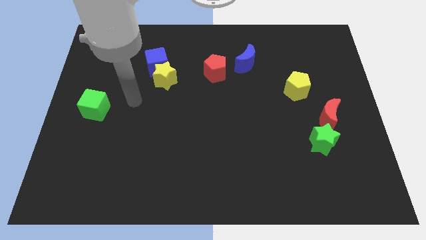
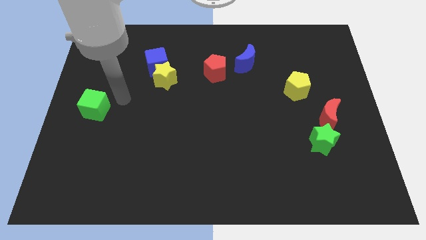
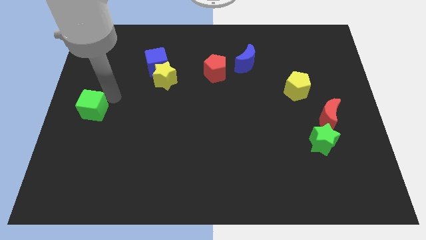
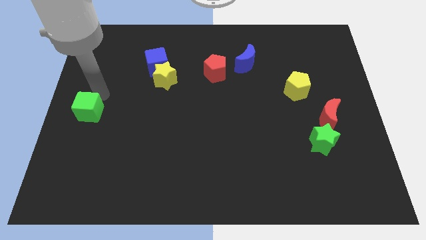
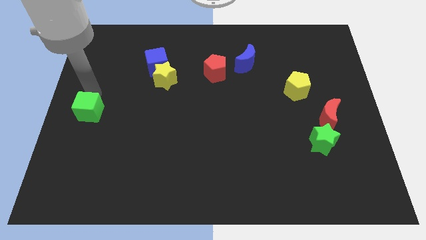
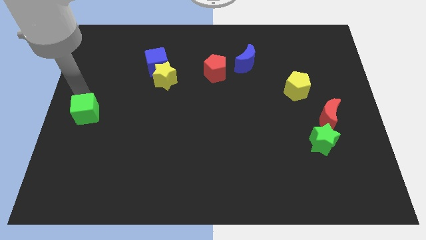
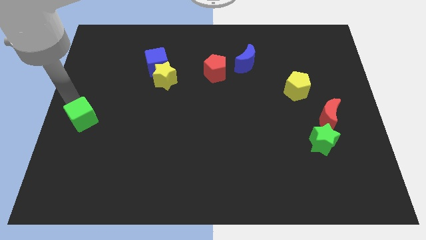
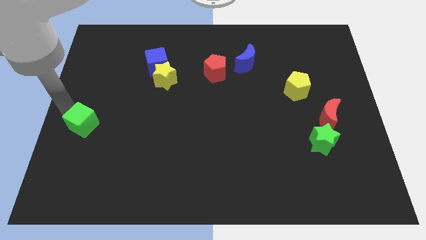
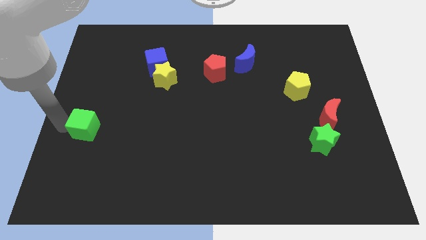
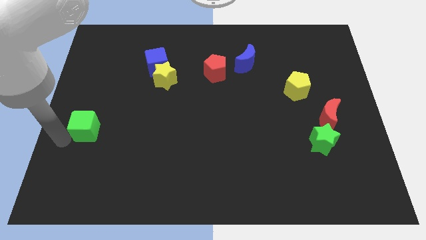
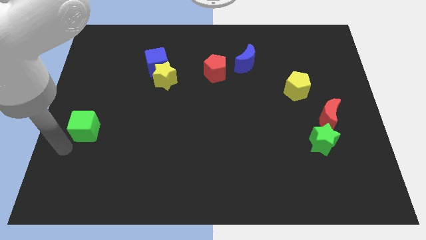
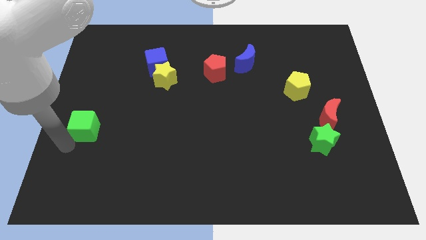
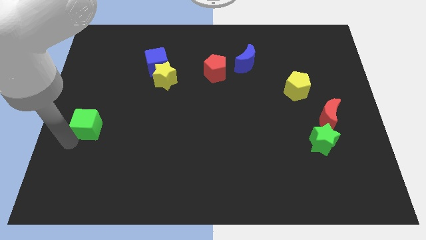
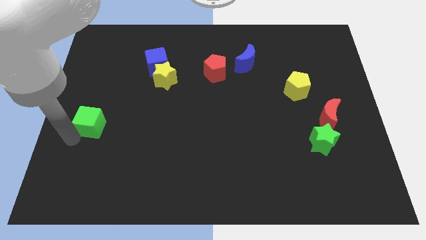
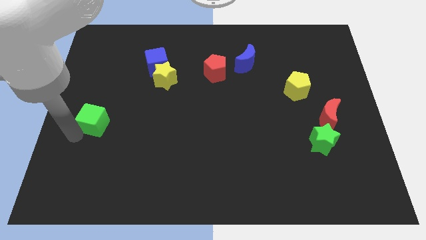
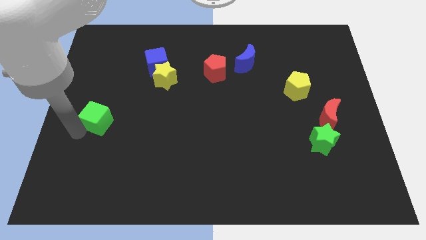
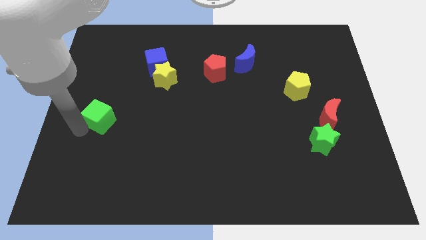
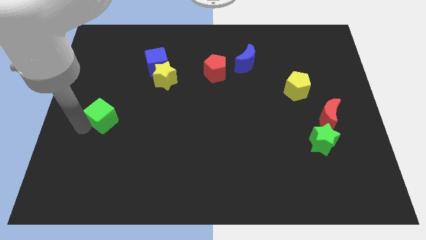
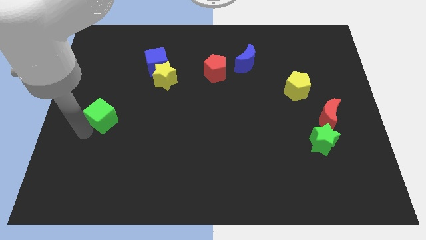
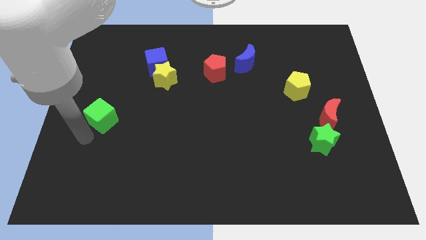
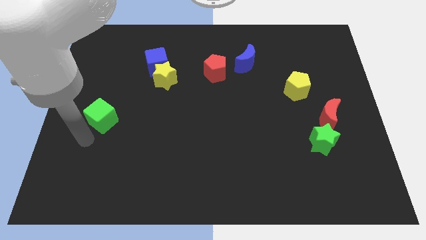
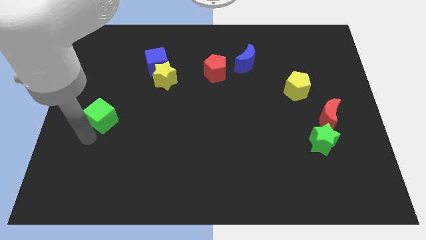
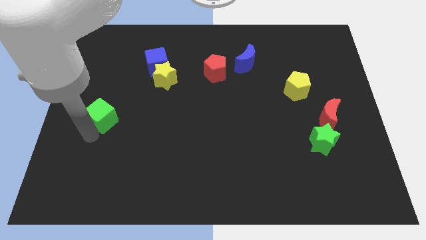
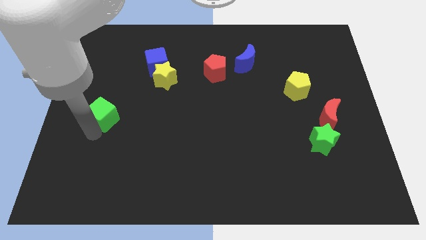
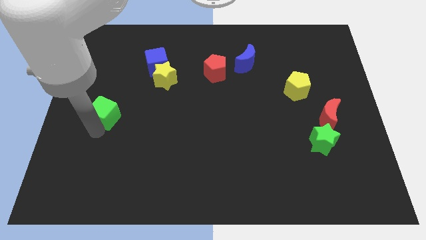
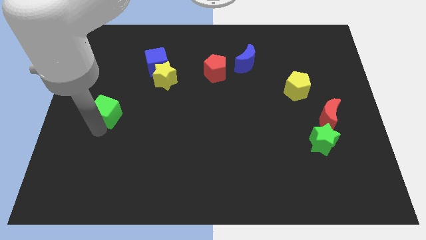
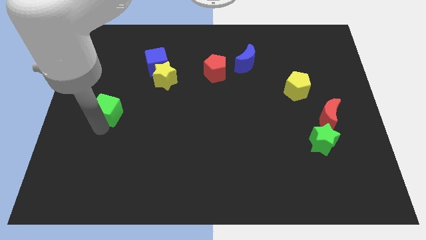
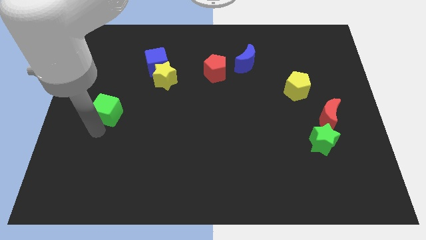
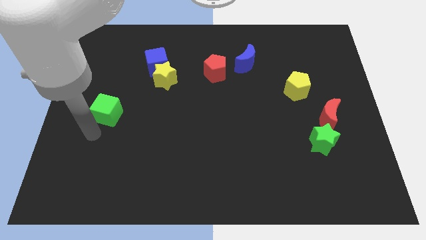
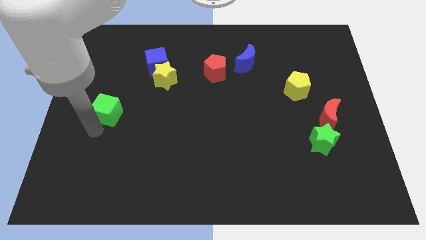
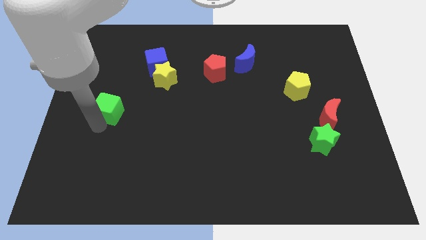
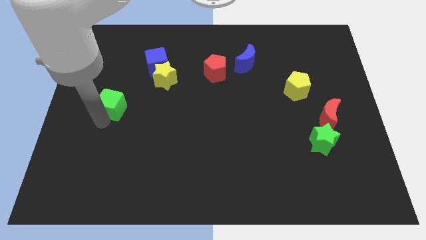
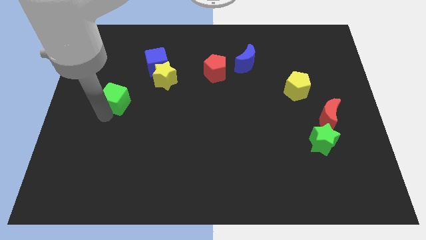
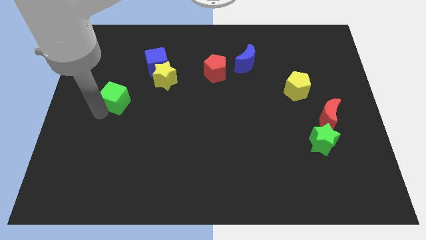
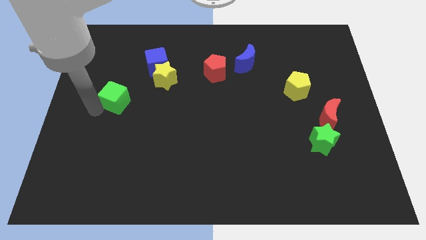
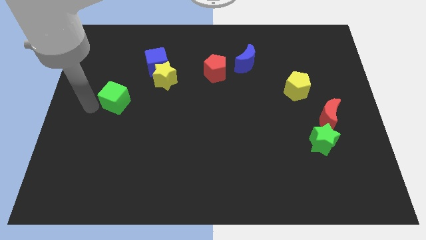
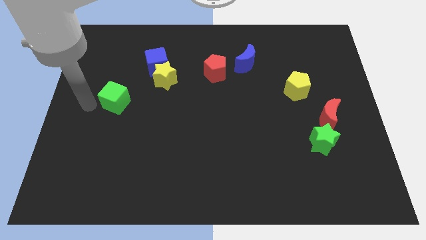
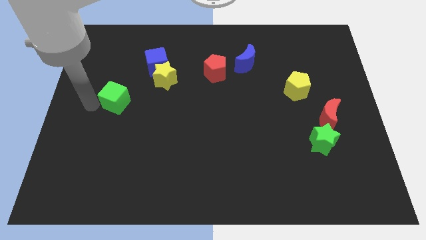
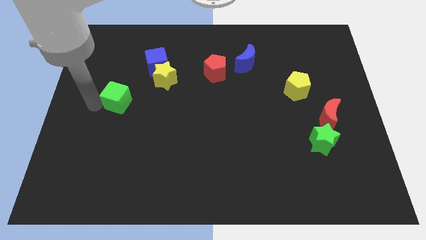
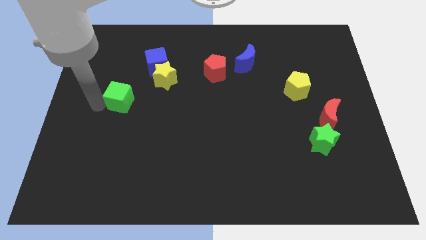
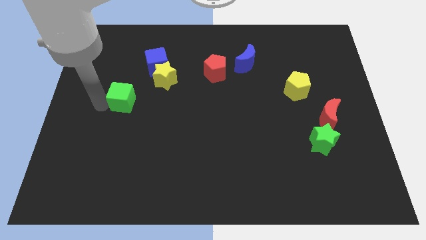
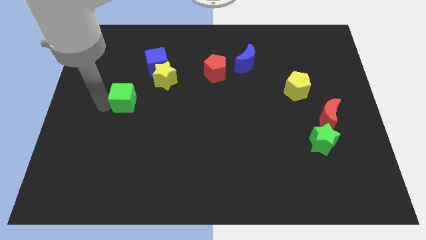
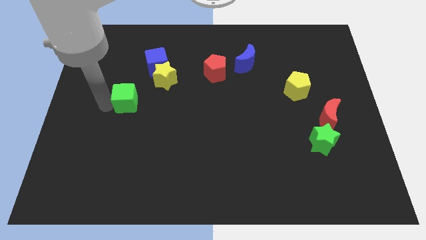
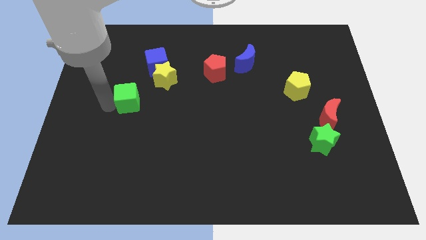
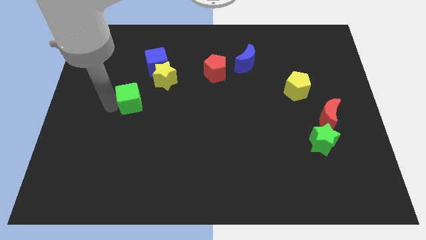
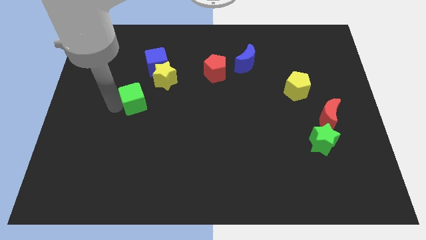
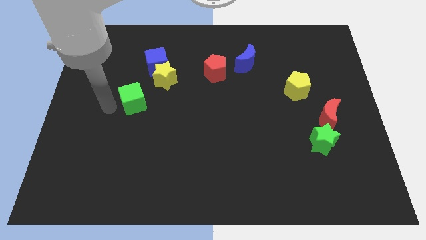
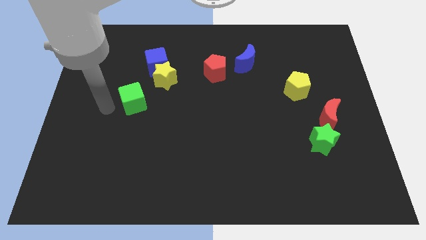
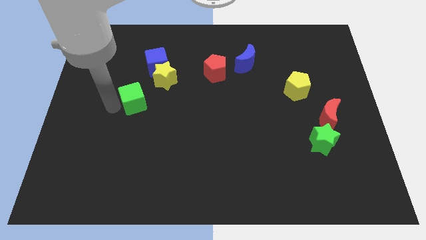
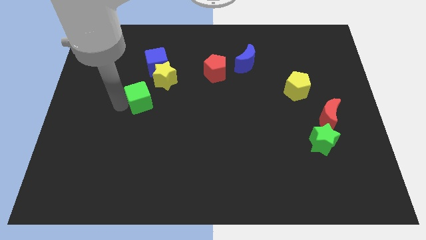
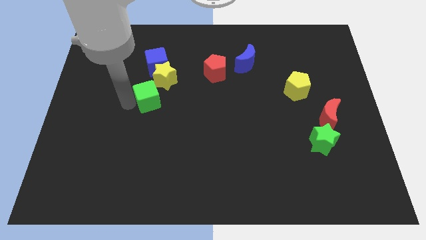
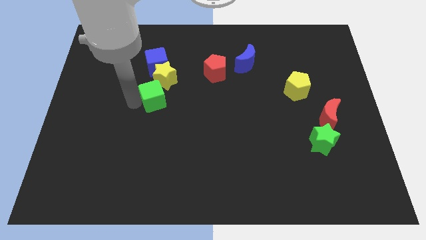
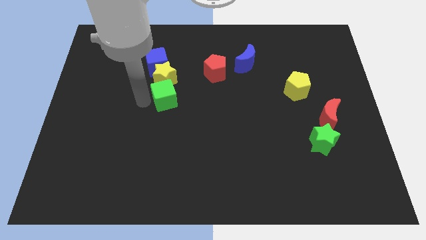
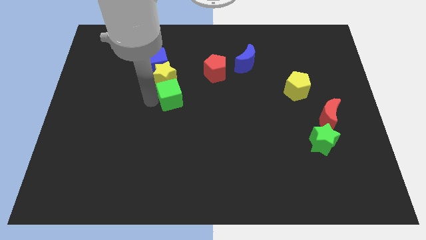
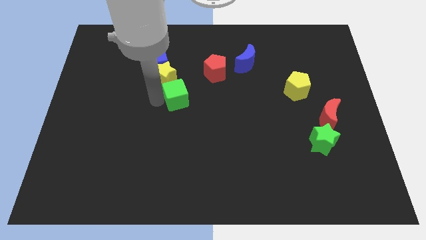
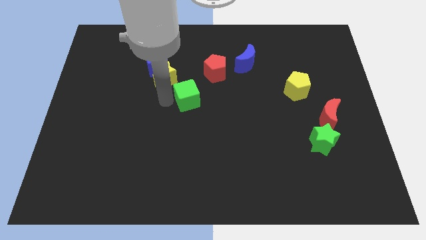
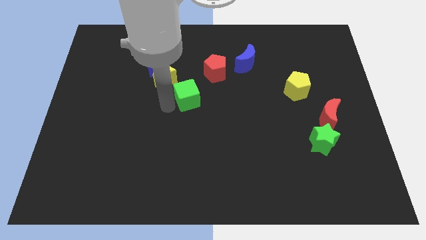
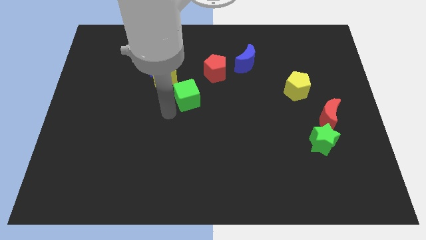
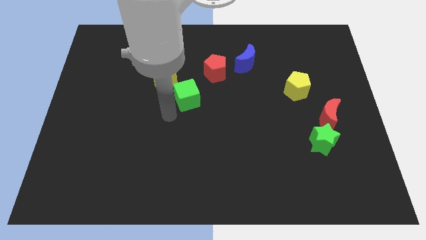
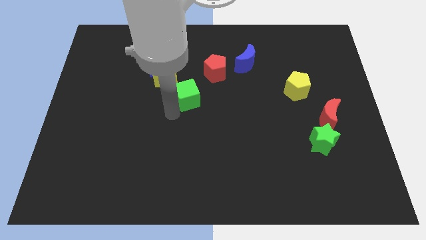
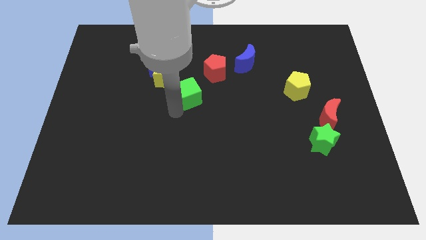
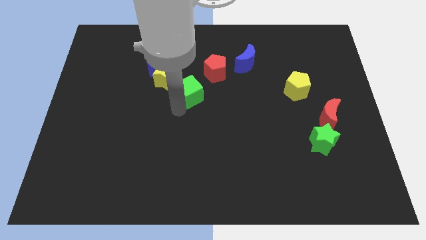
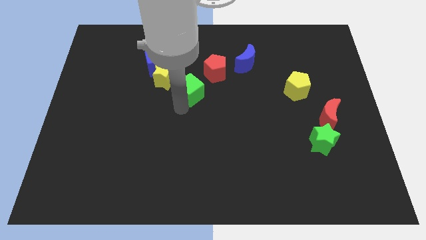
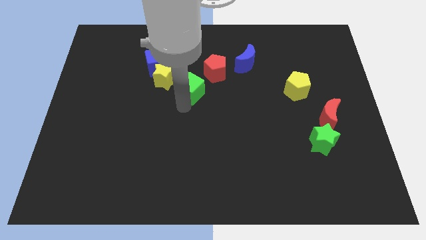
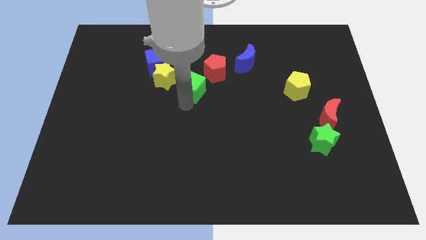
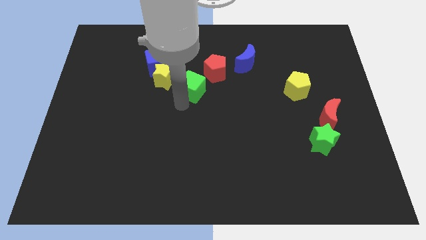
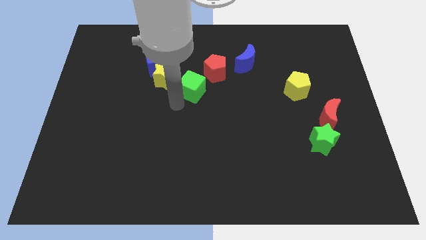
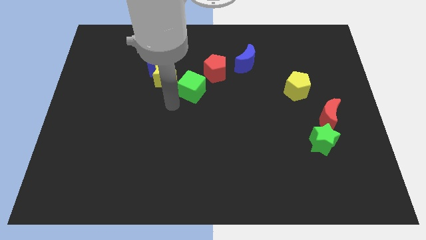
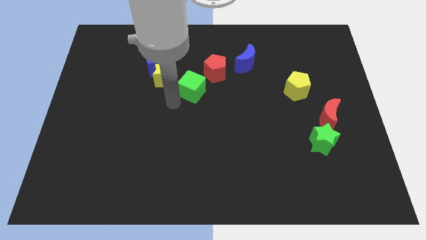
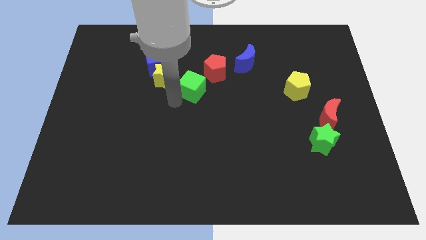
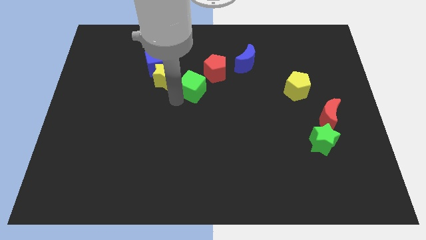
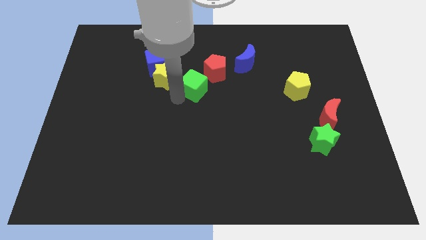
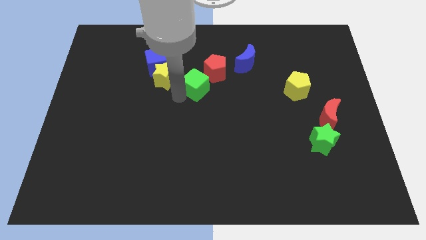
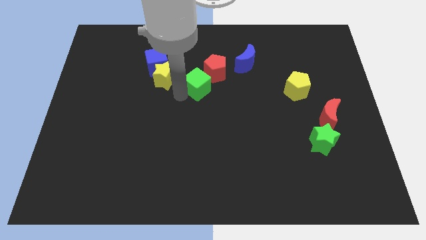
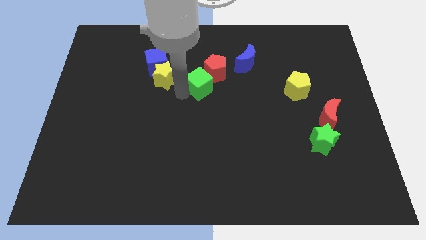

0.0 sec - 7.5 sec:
push the green cube next to the red pentagon
